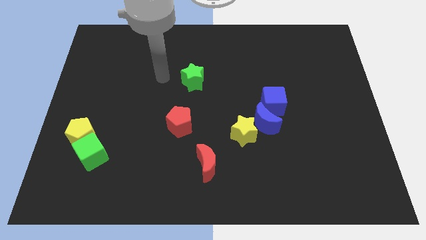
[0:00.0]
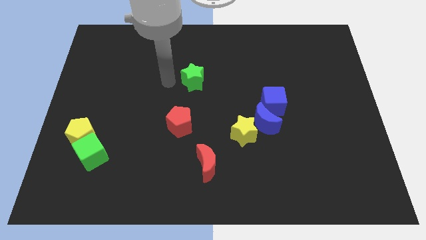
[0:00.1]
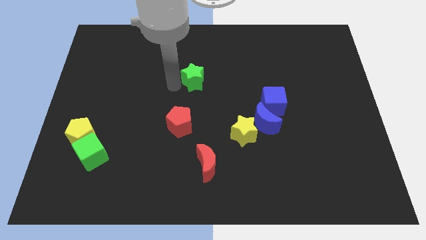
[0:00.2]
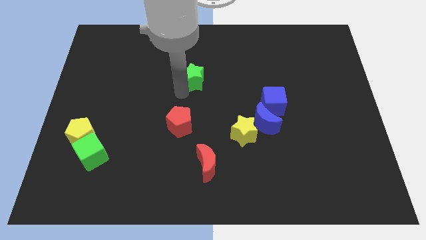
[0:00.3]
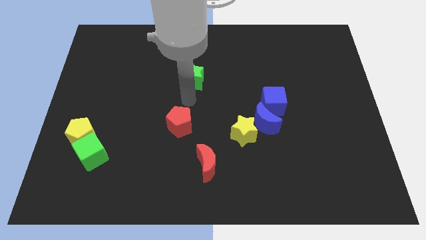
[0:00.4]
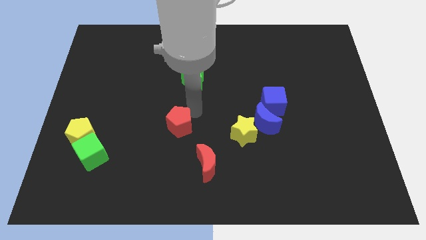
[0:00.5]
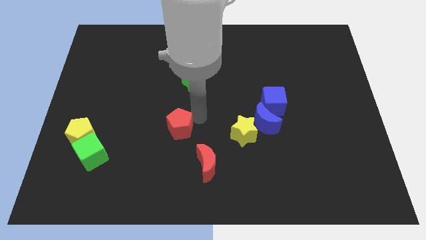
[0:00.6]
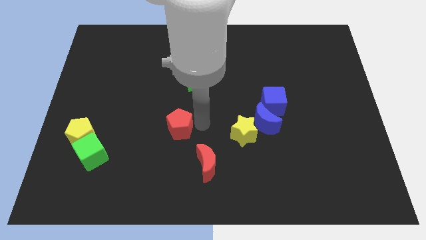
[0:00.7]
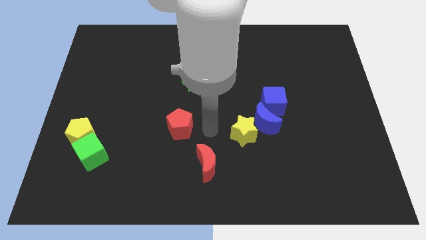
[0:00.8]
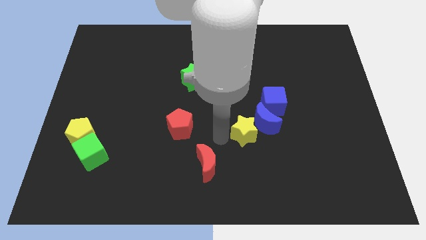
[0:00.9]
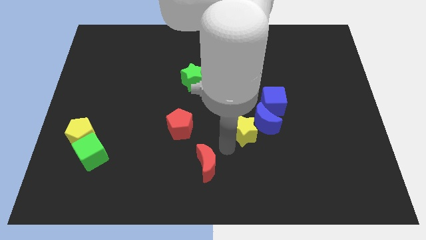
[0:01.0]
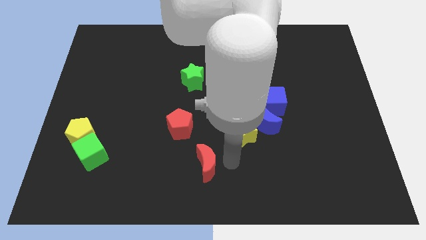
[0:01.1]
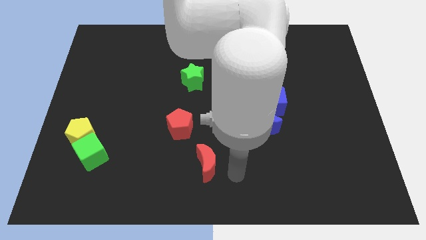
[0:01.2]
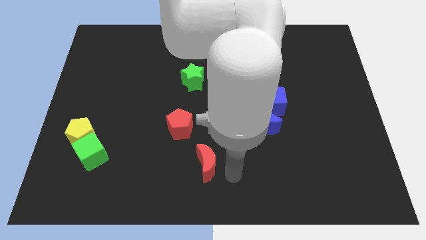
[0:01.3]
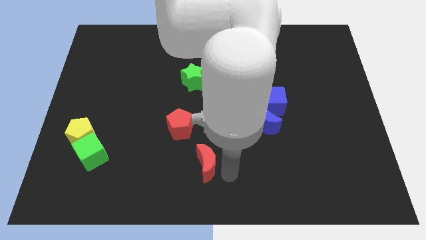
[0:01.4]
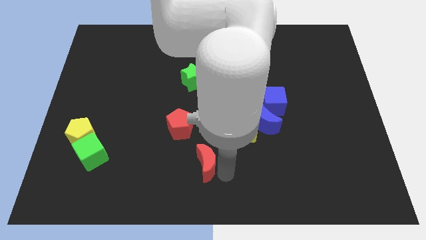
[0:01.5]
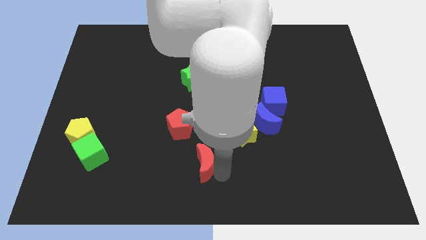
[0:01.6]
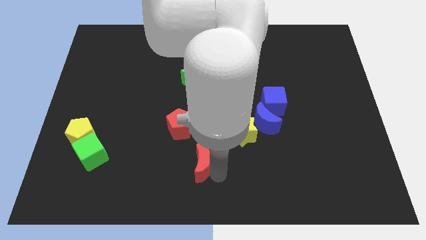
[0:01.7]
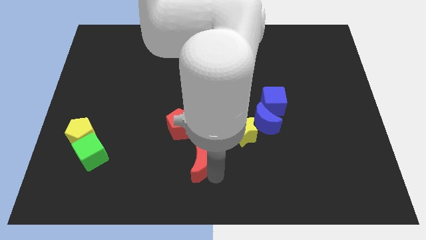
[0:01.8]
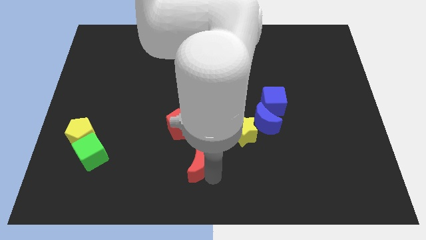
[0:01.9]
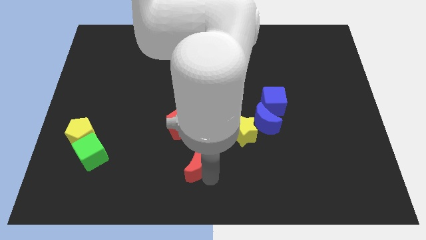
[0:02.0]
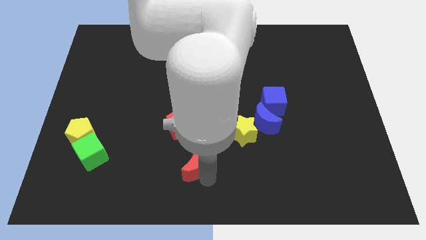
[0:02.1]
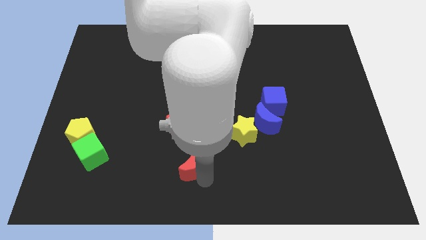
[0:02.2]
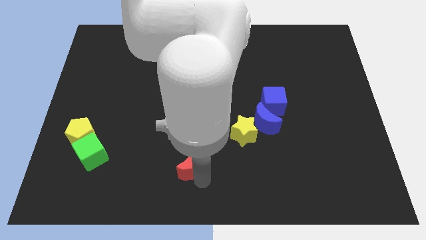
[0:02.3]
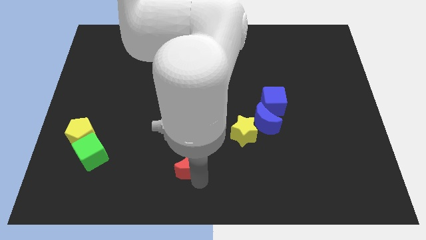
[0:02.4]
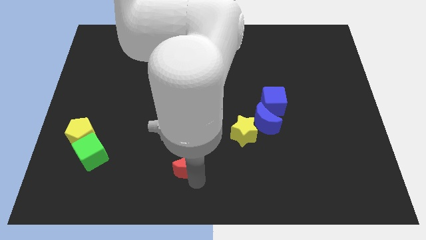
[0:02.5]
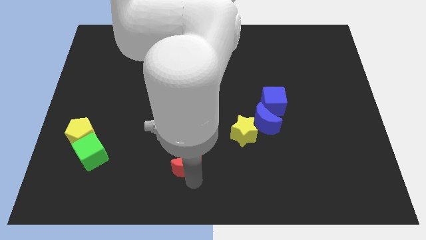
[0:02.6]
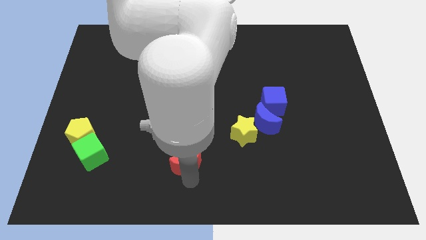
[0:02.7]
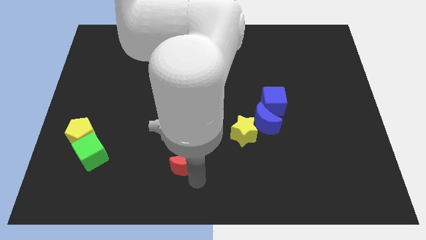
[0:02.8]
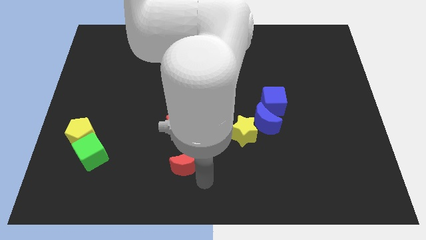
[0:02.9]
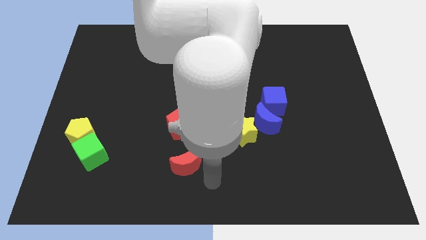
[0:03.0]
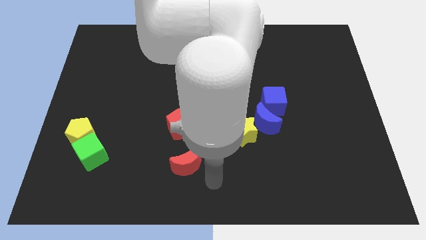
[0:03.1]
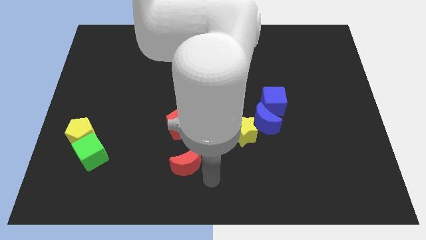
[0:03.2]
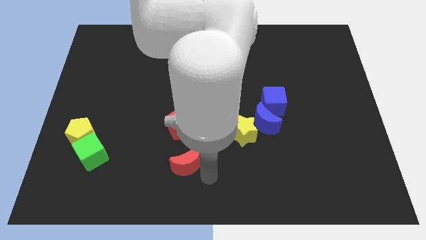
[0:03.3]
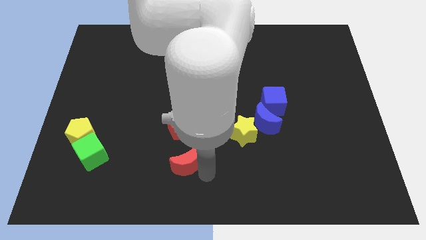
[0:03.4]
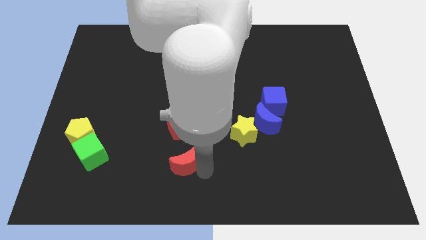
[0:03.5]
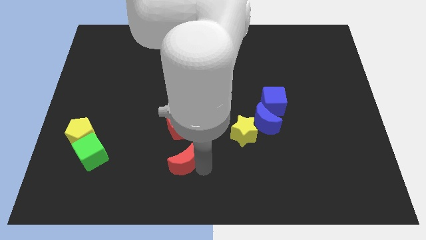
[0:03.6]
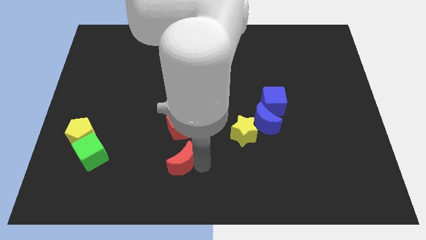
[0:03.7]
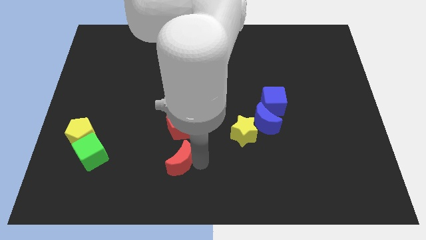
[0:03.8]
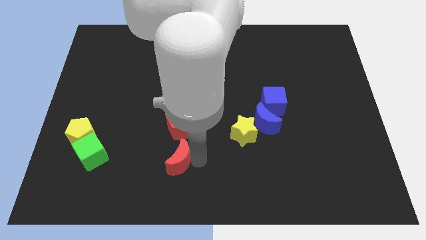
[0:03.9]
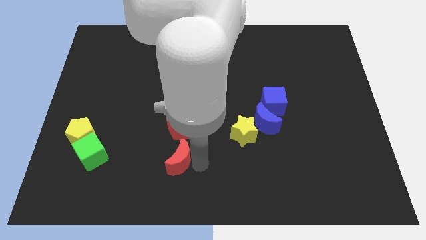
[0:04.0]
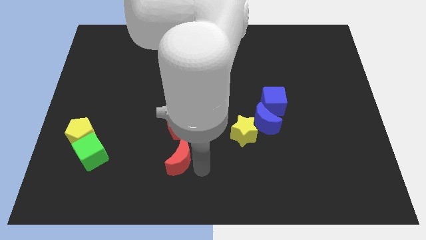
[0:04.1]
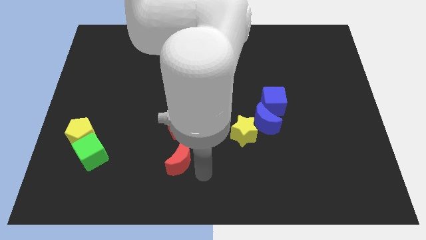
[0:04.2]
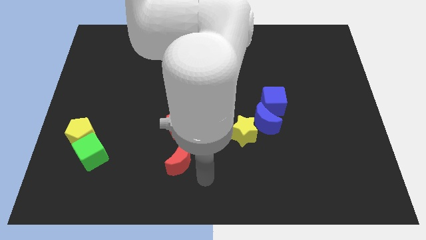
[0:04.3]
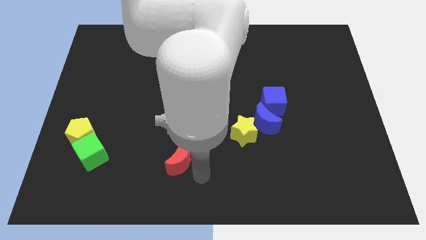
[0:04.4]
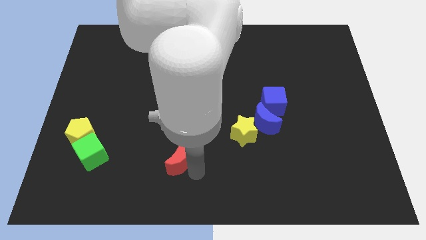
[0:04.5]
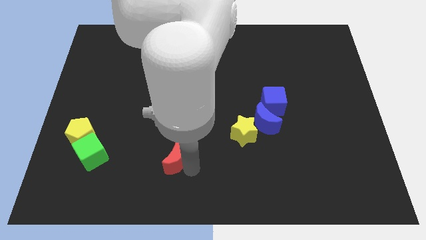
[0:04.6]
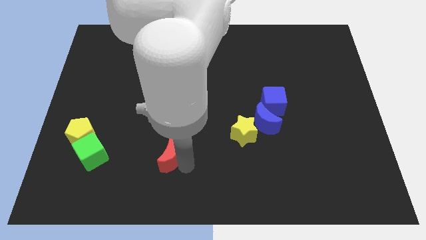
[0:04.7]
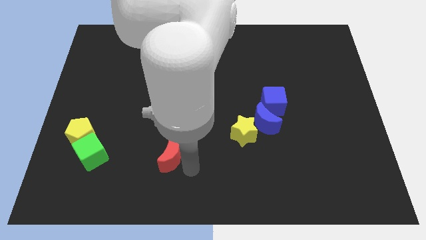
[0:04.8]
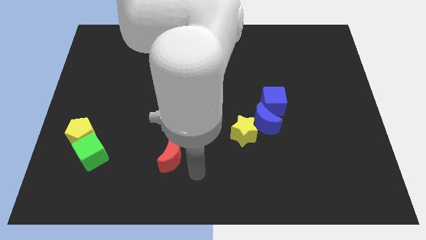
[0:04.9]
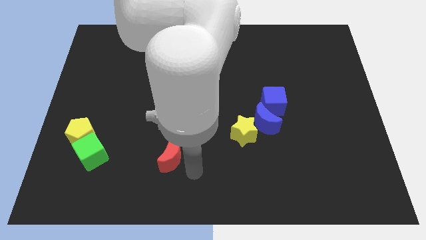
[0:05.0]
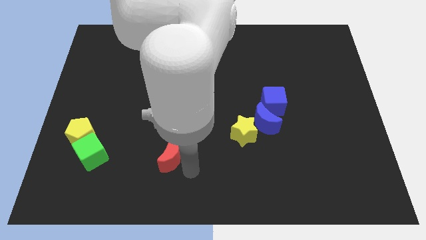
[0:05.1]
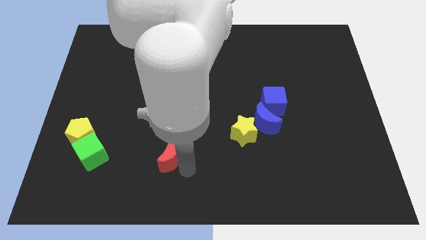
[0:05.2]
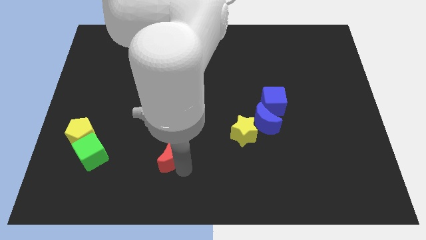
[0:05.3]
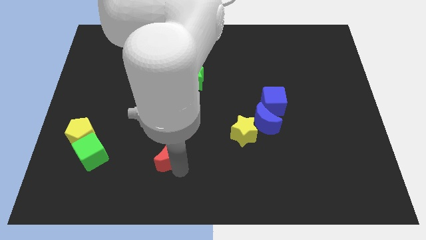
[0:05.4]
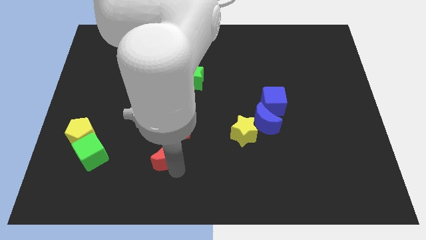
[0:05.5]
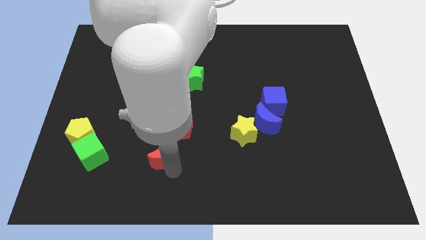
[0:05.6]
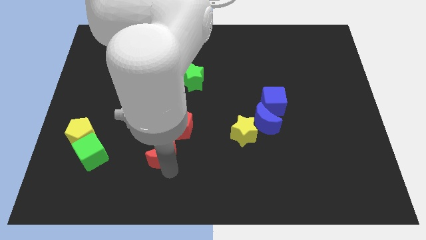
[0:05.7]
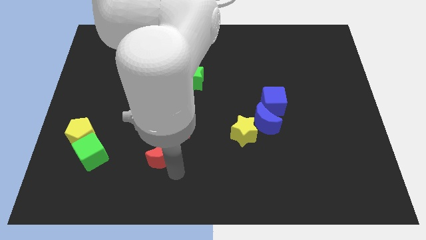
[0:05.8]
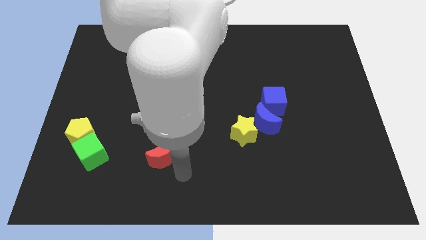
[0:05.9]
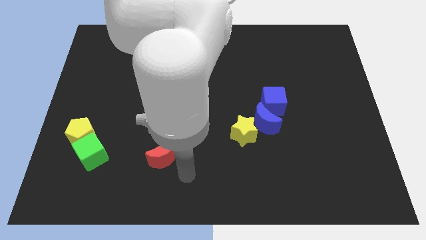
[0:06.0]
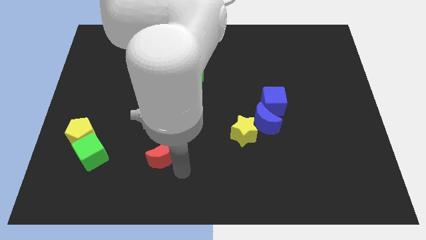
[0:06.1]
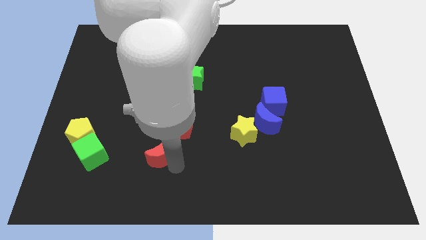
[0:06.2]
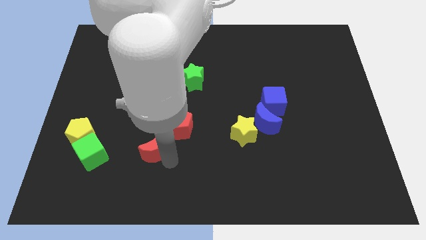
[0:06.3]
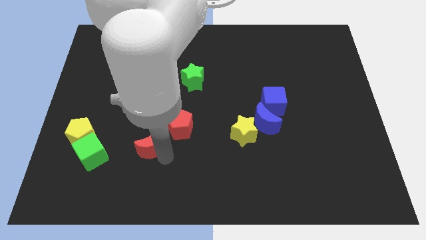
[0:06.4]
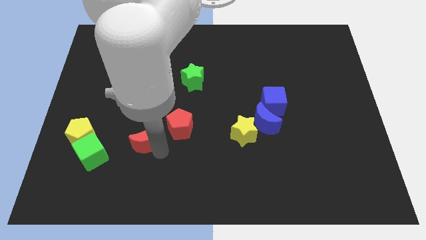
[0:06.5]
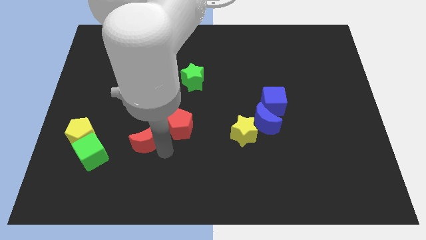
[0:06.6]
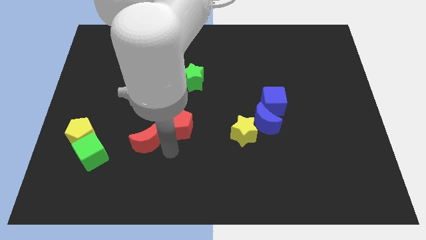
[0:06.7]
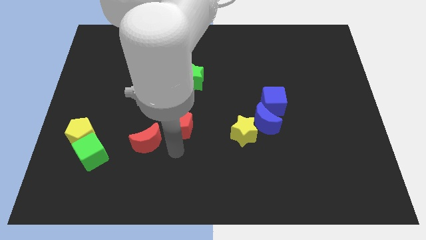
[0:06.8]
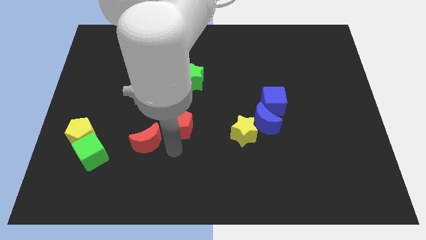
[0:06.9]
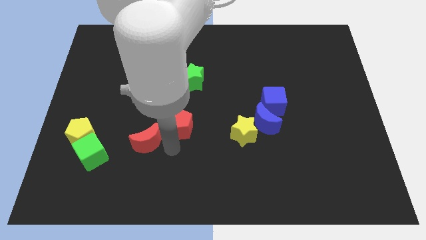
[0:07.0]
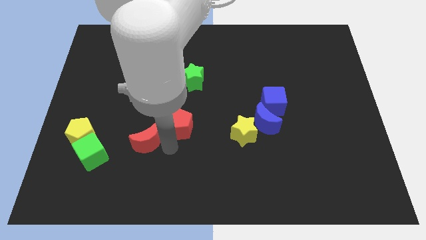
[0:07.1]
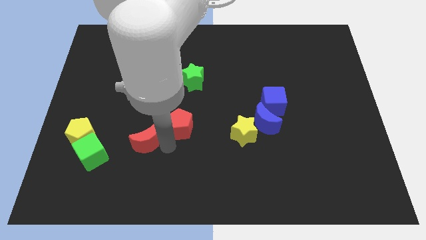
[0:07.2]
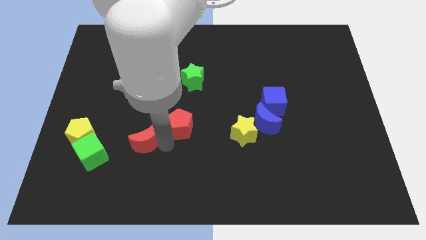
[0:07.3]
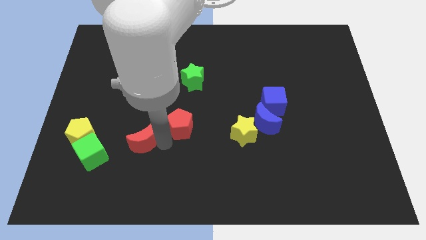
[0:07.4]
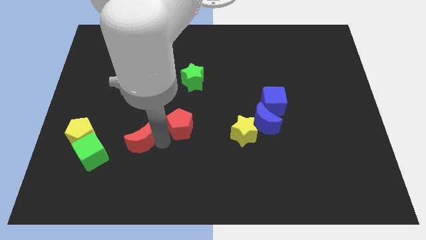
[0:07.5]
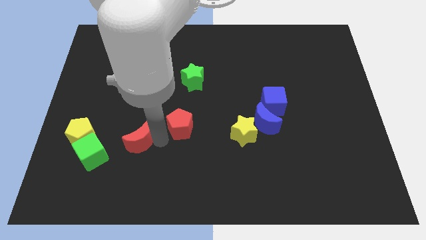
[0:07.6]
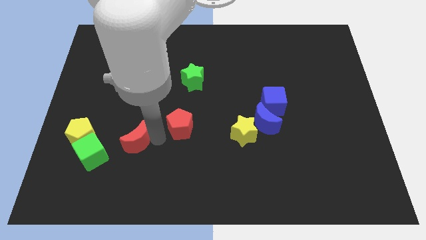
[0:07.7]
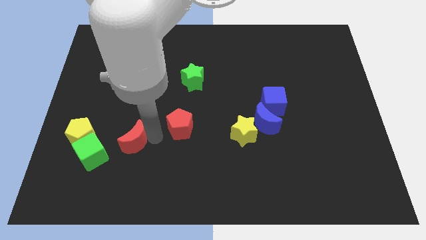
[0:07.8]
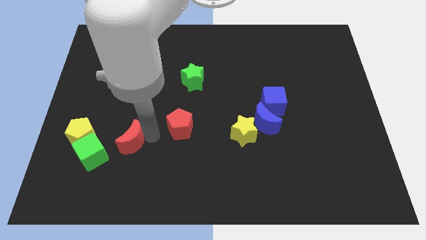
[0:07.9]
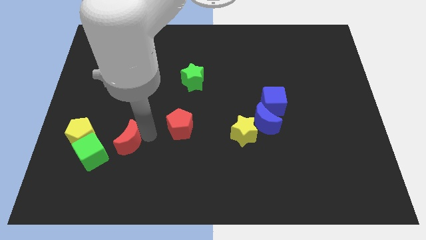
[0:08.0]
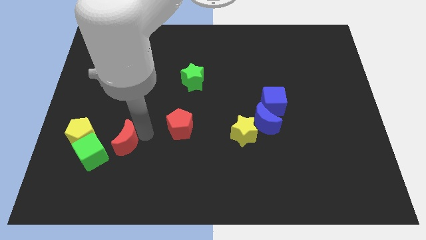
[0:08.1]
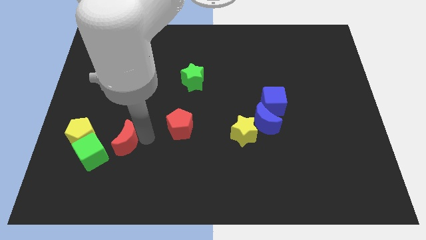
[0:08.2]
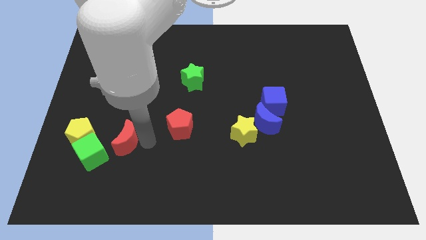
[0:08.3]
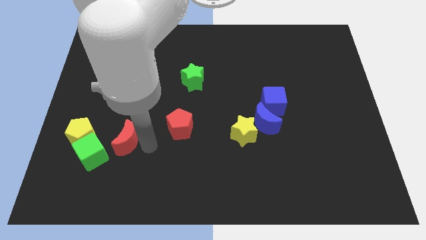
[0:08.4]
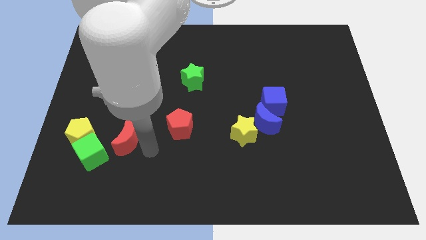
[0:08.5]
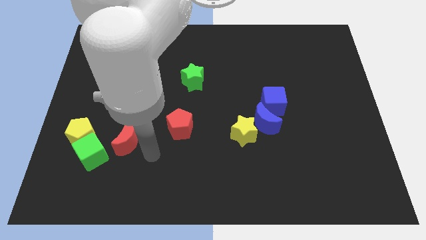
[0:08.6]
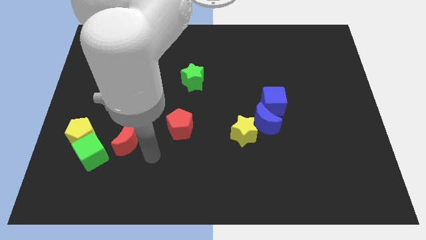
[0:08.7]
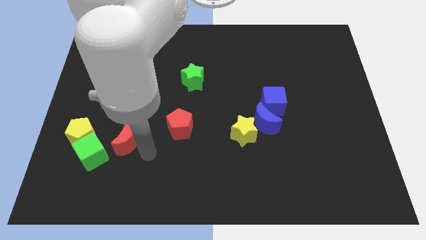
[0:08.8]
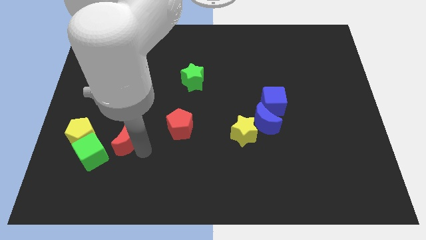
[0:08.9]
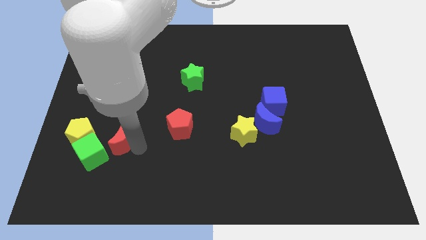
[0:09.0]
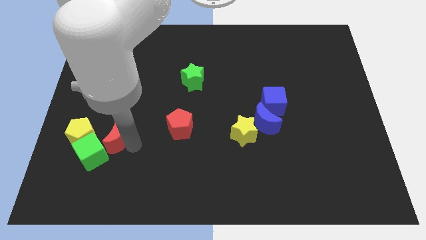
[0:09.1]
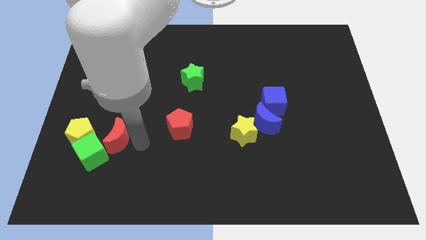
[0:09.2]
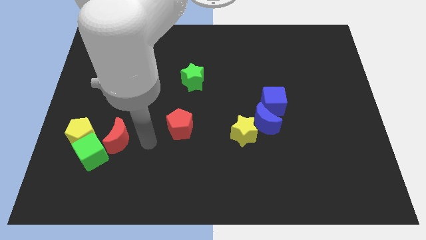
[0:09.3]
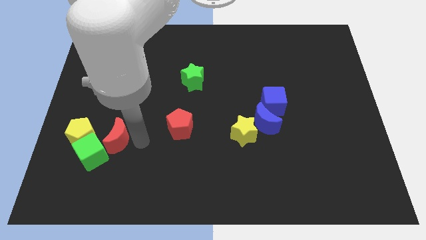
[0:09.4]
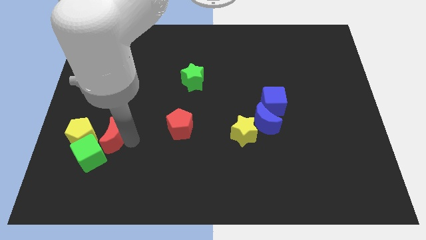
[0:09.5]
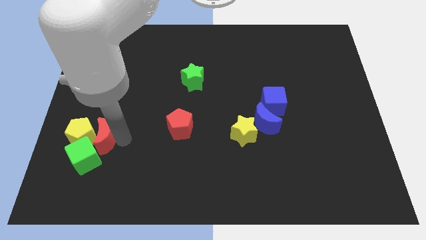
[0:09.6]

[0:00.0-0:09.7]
slide the red moon next to the yellow pentagon
